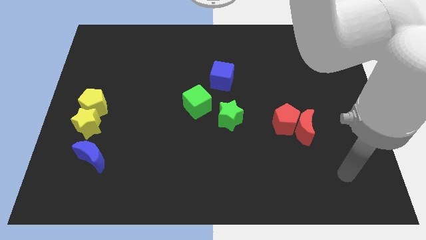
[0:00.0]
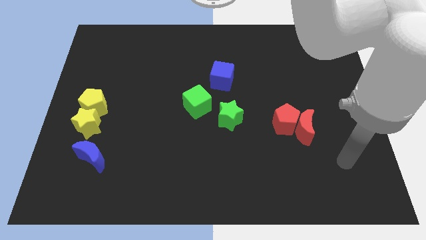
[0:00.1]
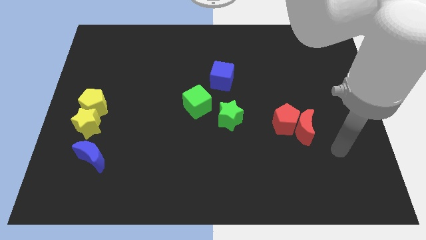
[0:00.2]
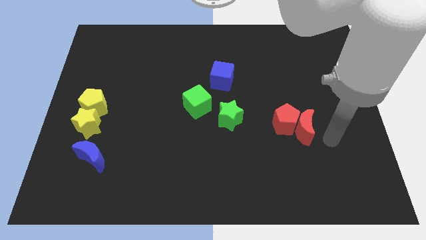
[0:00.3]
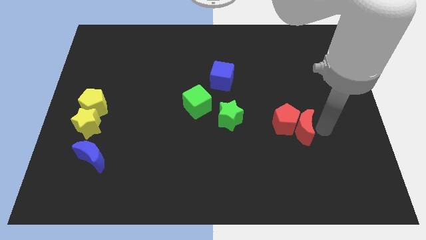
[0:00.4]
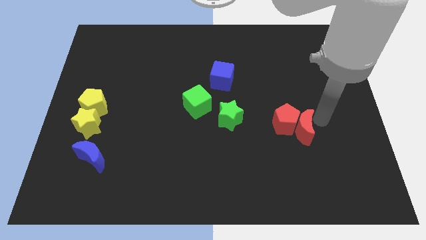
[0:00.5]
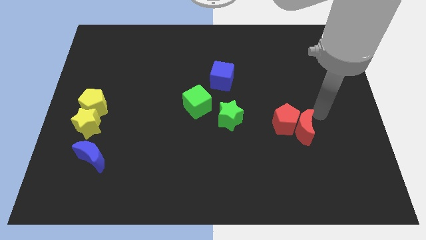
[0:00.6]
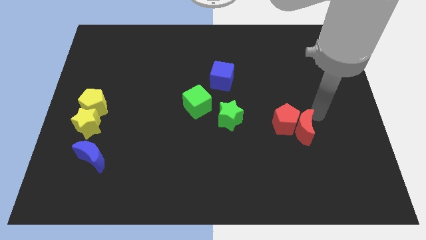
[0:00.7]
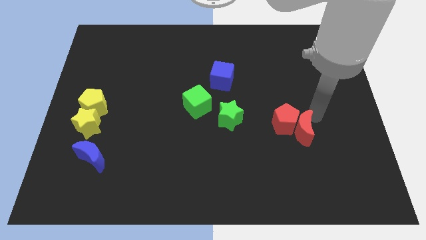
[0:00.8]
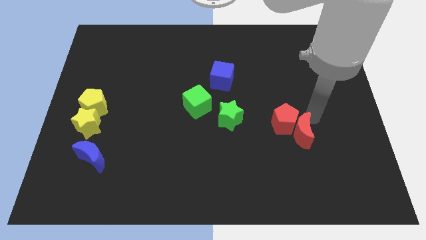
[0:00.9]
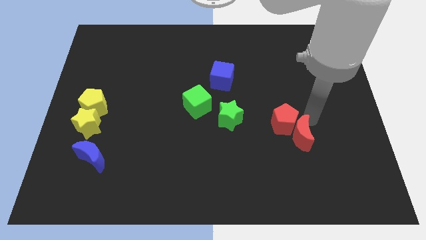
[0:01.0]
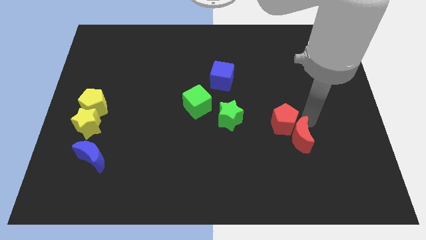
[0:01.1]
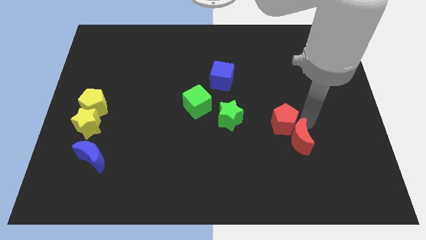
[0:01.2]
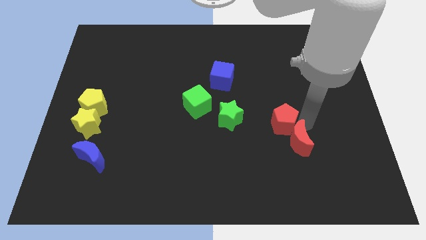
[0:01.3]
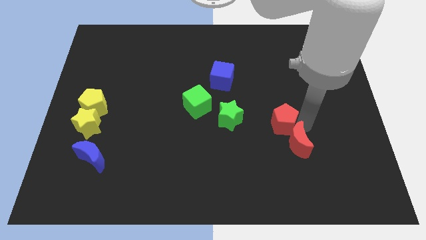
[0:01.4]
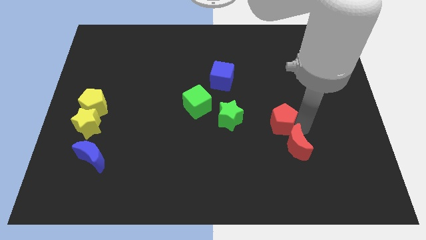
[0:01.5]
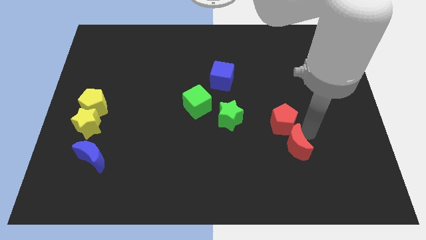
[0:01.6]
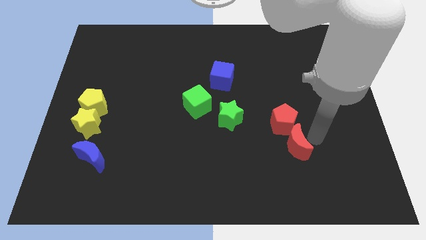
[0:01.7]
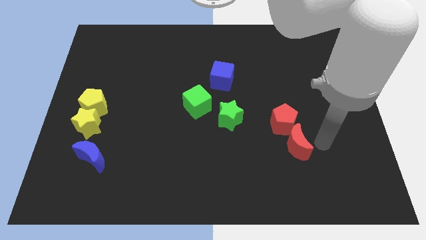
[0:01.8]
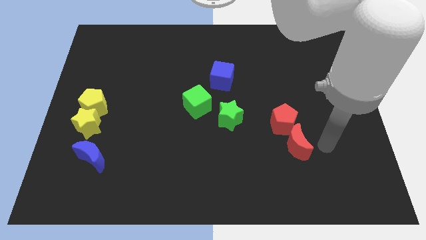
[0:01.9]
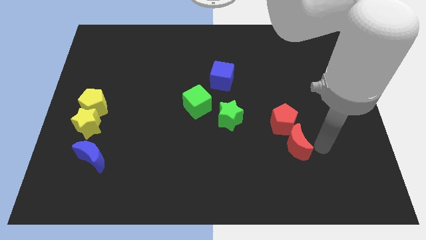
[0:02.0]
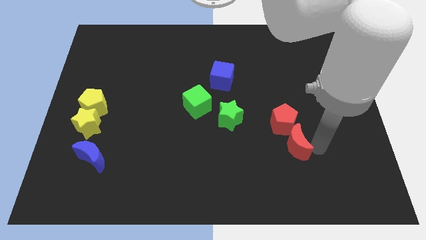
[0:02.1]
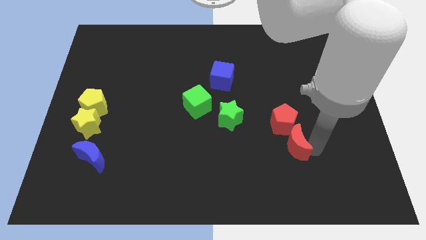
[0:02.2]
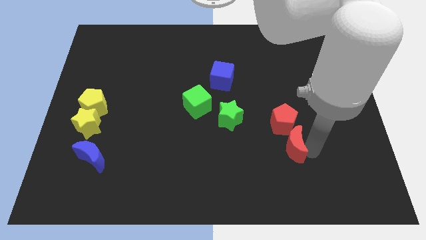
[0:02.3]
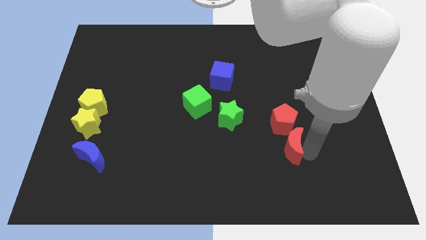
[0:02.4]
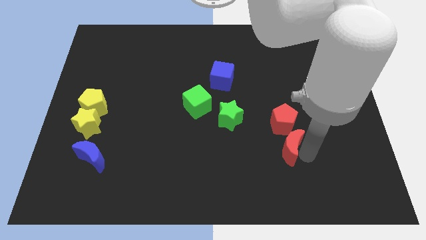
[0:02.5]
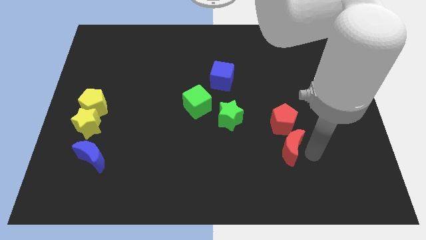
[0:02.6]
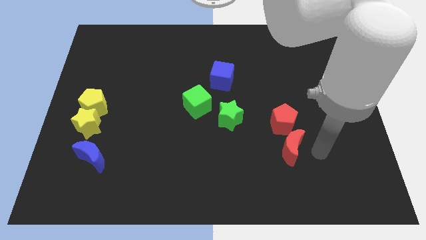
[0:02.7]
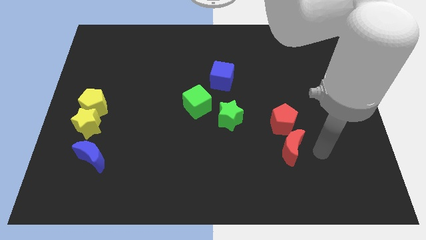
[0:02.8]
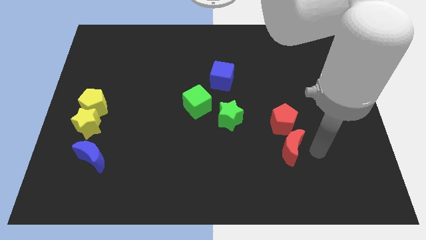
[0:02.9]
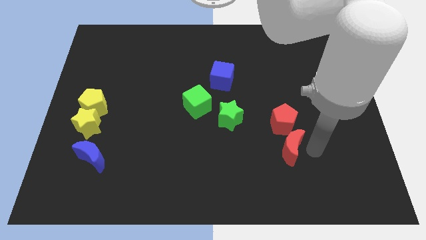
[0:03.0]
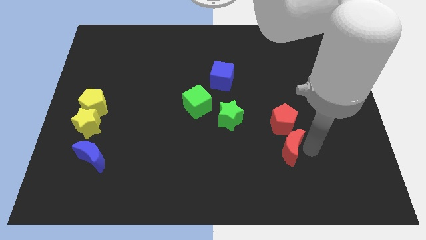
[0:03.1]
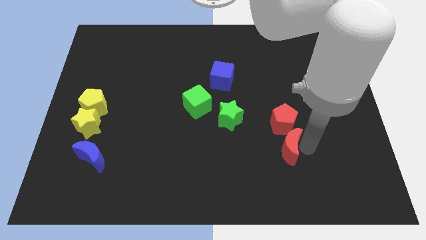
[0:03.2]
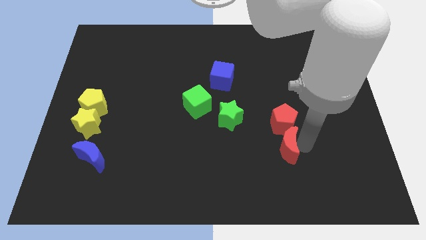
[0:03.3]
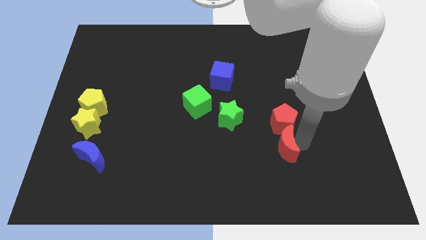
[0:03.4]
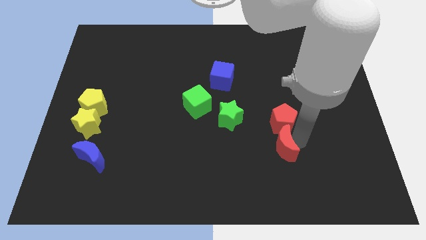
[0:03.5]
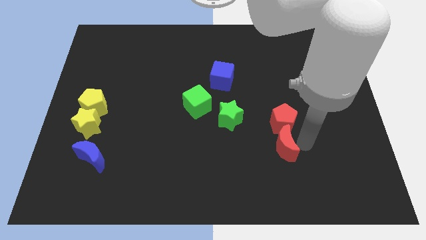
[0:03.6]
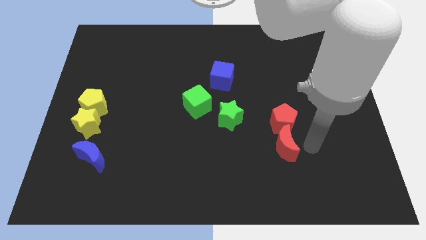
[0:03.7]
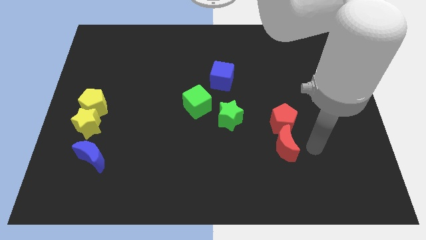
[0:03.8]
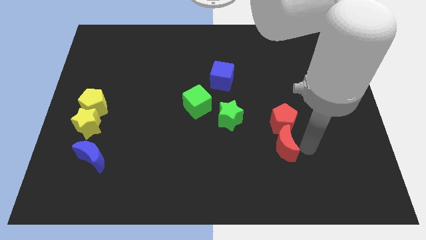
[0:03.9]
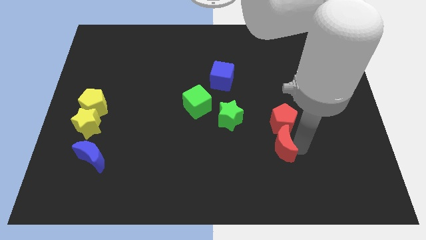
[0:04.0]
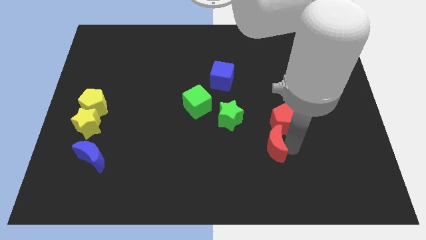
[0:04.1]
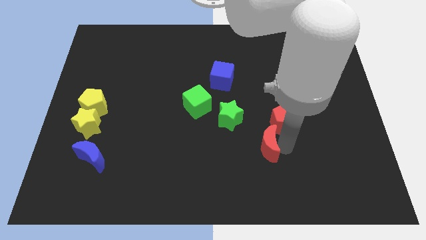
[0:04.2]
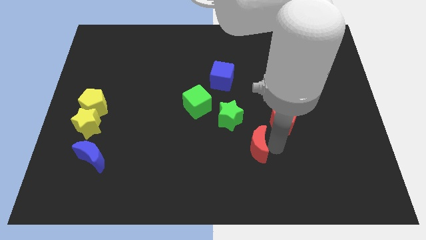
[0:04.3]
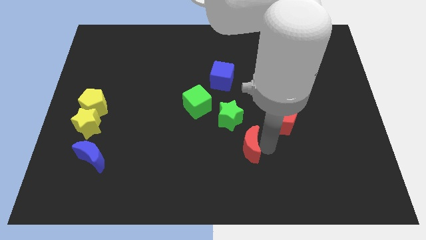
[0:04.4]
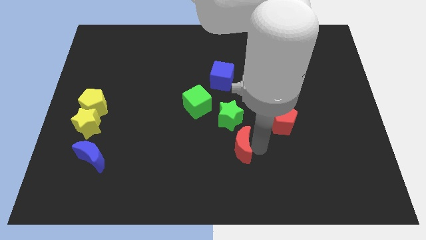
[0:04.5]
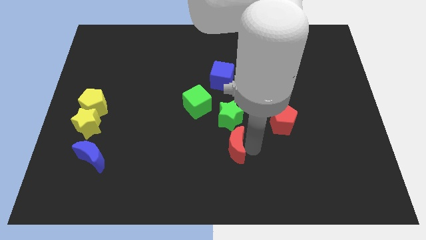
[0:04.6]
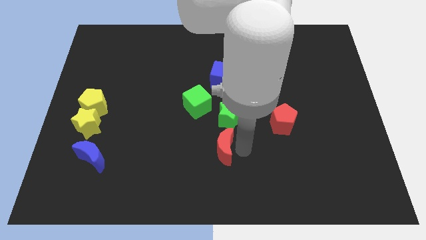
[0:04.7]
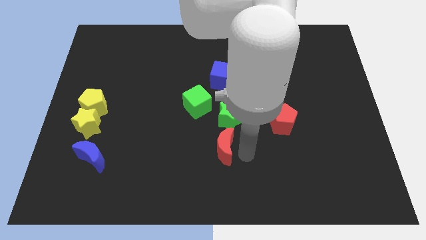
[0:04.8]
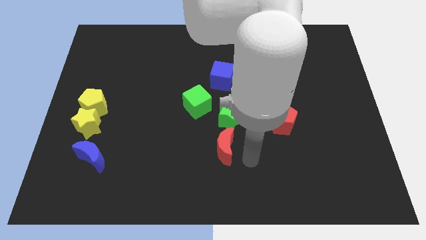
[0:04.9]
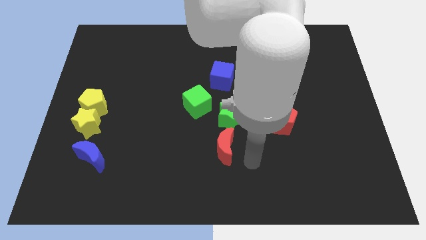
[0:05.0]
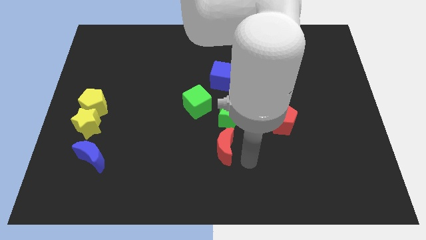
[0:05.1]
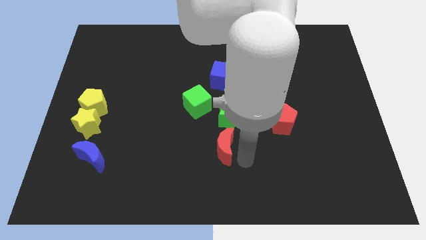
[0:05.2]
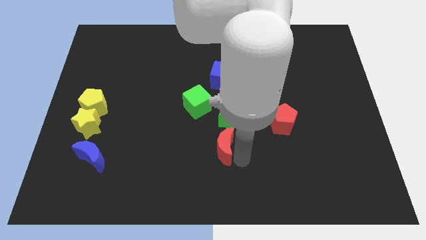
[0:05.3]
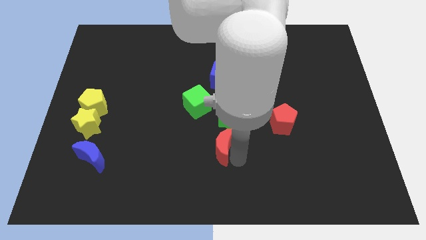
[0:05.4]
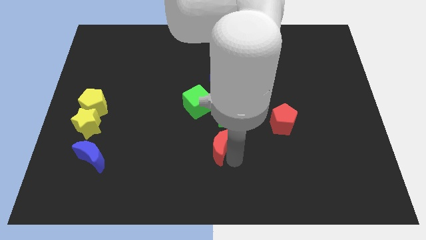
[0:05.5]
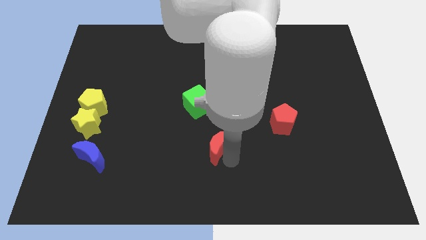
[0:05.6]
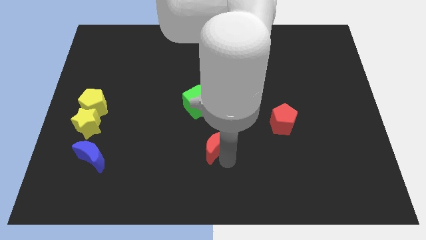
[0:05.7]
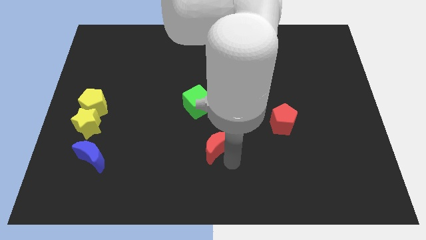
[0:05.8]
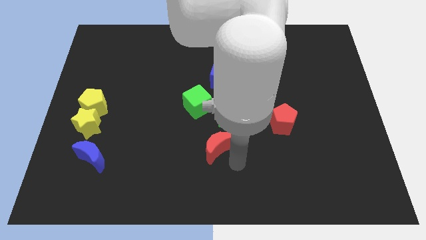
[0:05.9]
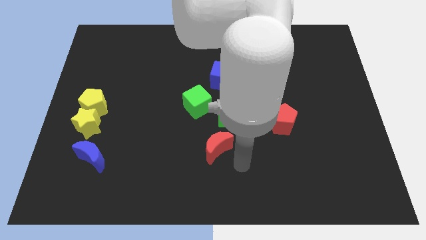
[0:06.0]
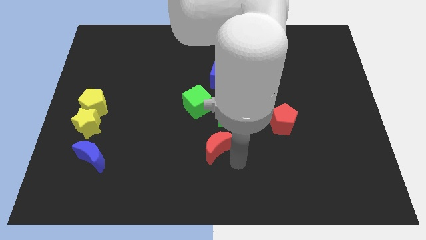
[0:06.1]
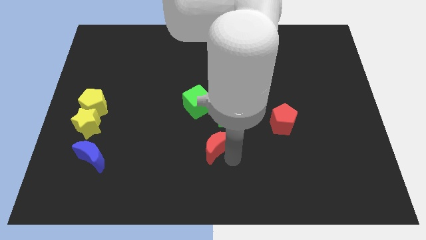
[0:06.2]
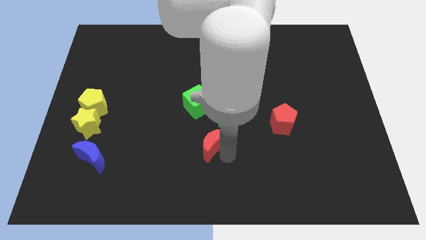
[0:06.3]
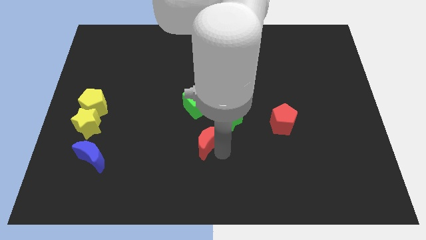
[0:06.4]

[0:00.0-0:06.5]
slide the red moon left

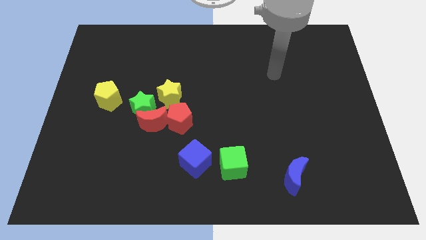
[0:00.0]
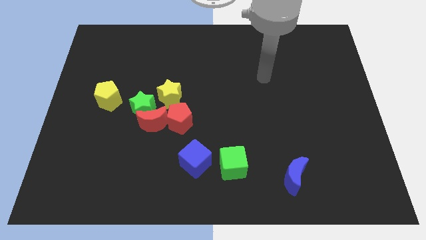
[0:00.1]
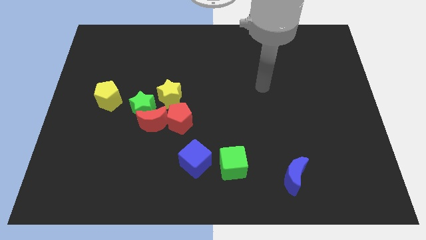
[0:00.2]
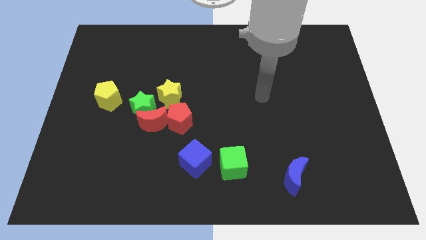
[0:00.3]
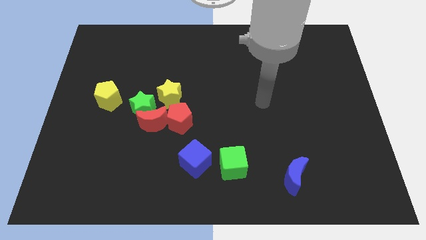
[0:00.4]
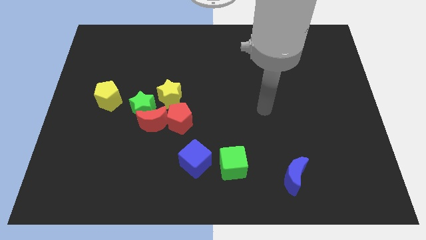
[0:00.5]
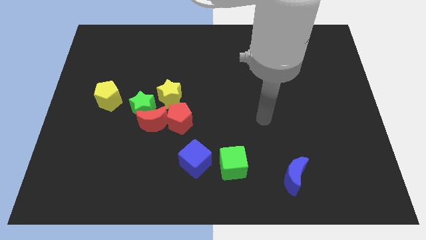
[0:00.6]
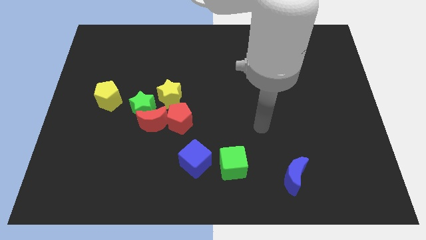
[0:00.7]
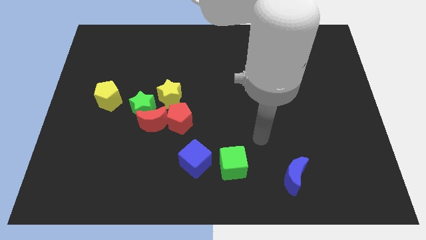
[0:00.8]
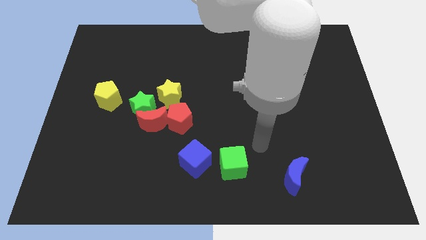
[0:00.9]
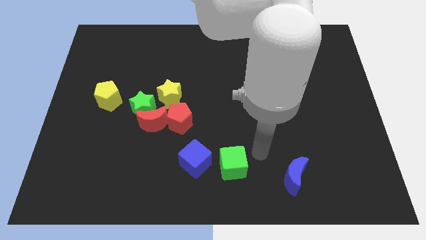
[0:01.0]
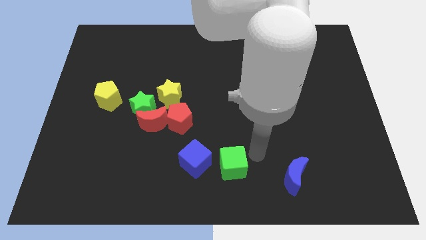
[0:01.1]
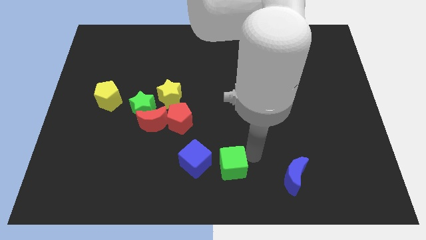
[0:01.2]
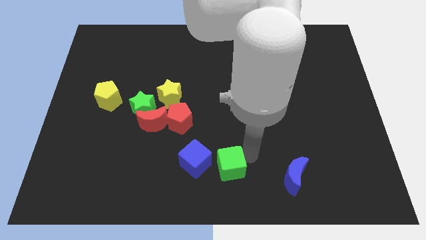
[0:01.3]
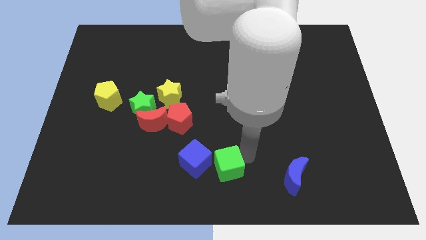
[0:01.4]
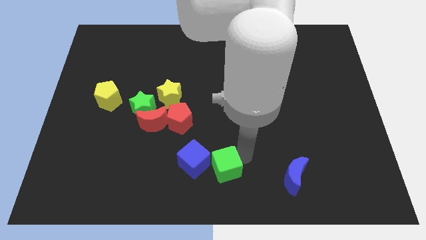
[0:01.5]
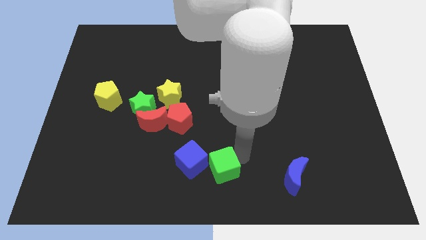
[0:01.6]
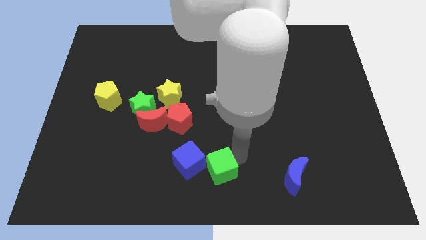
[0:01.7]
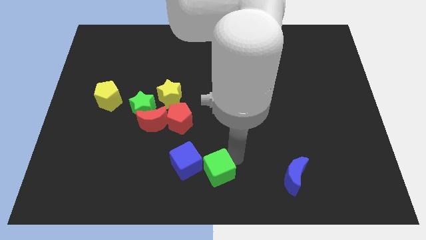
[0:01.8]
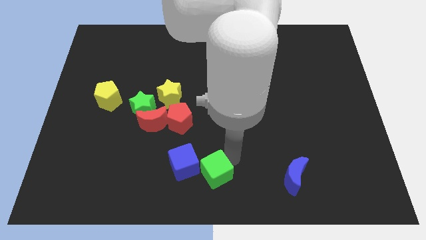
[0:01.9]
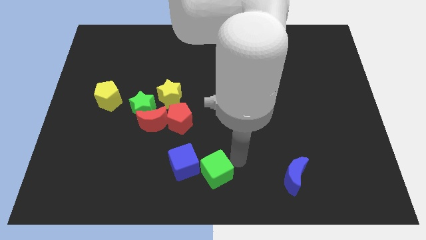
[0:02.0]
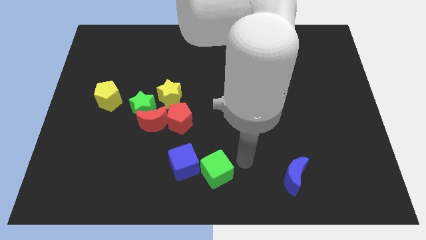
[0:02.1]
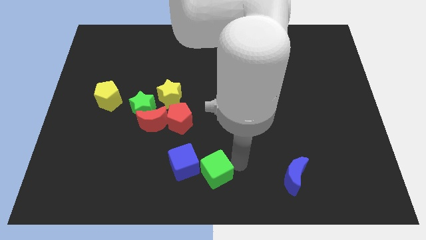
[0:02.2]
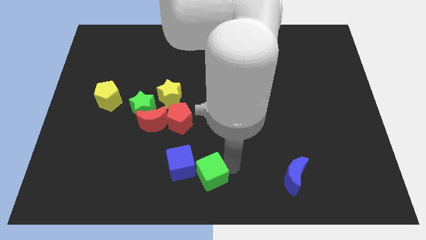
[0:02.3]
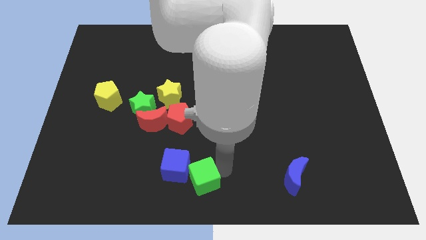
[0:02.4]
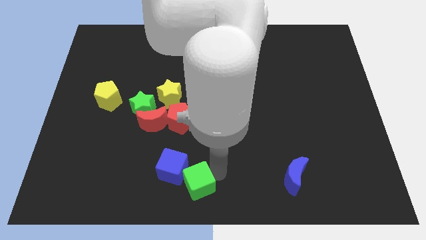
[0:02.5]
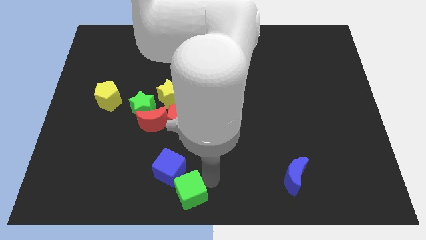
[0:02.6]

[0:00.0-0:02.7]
move the green cube a bit to the left
